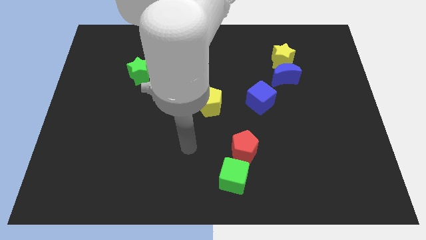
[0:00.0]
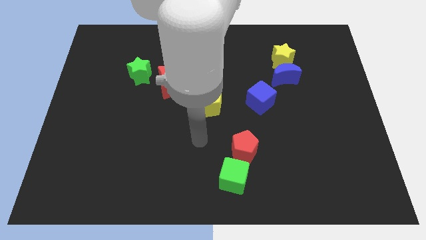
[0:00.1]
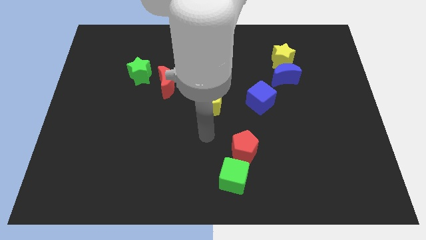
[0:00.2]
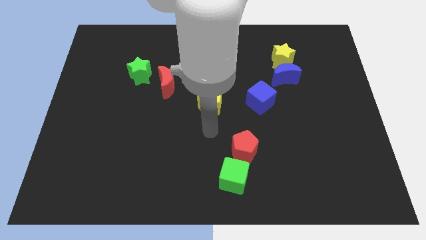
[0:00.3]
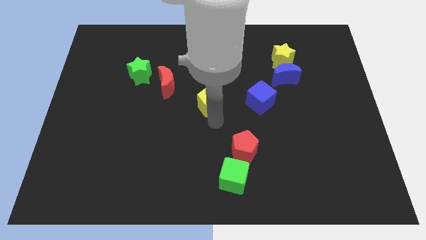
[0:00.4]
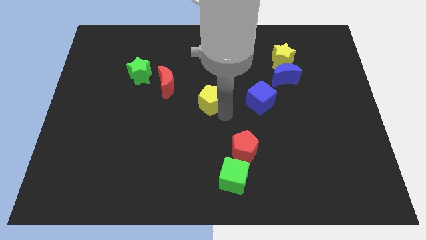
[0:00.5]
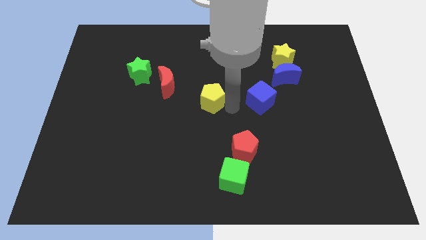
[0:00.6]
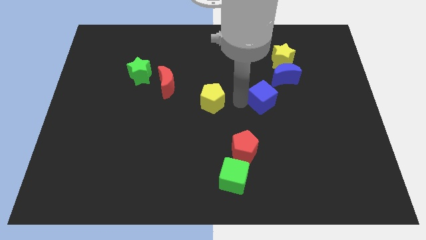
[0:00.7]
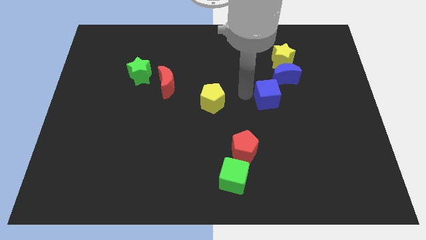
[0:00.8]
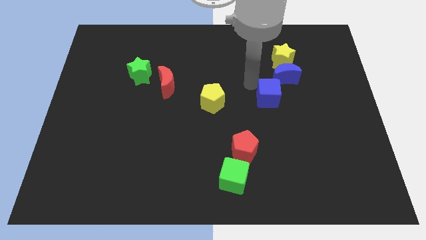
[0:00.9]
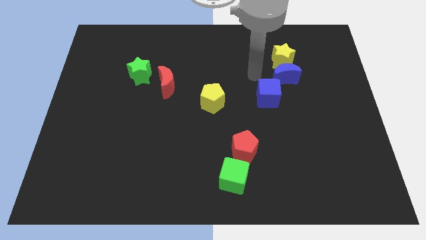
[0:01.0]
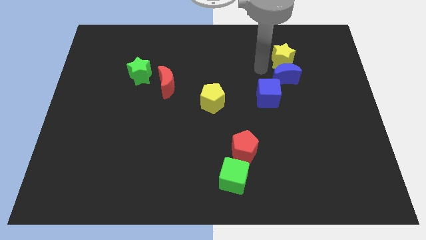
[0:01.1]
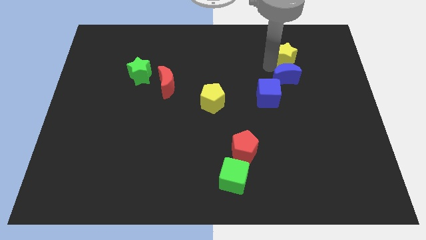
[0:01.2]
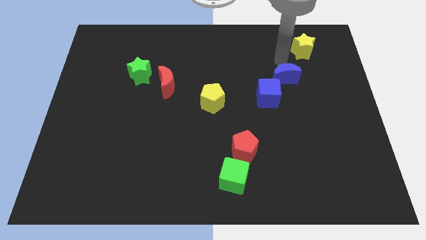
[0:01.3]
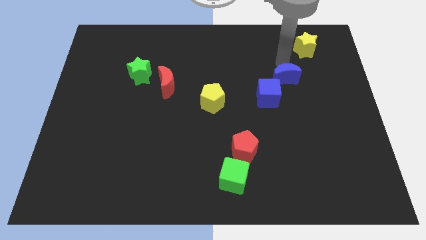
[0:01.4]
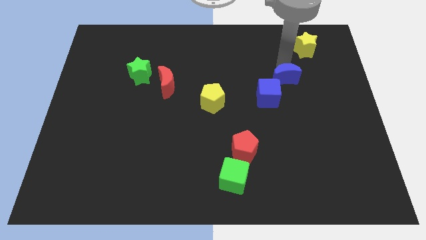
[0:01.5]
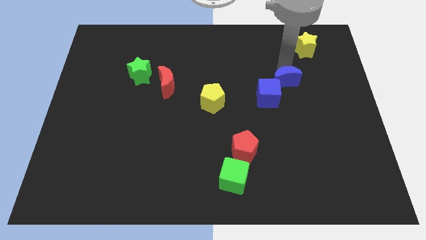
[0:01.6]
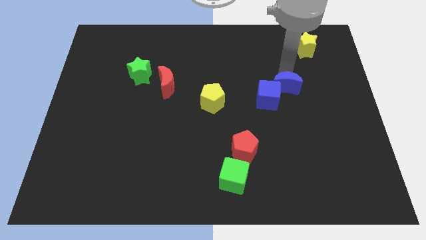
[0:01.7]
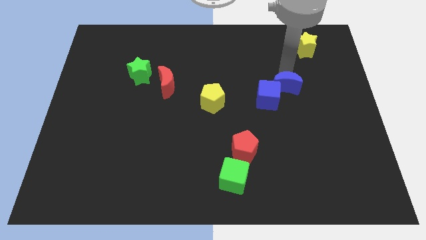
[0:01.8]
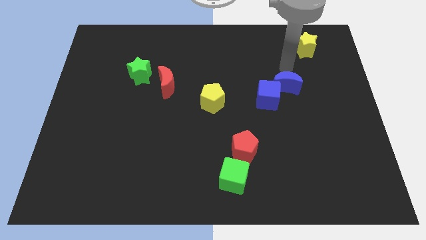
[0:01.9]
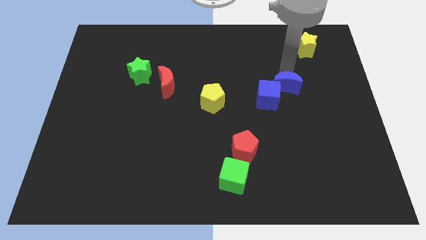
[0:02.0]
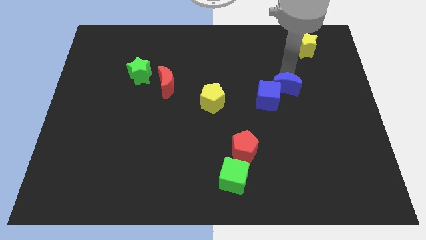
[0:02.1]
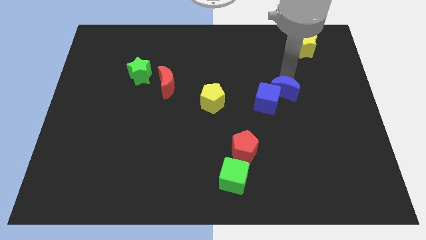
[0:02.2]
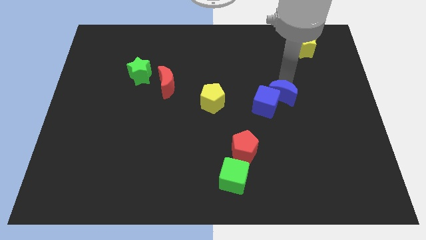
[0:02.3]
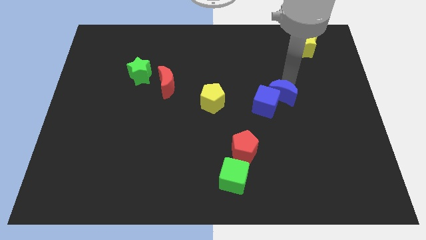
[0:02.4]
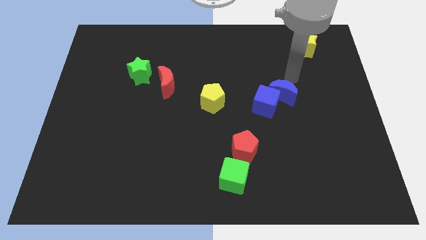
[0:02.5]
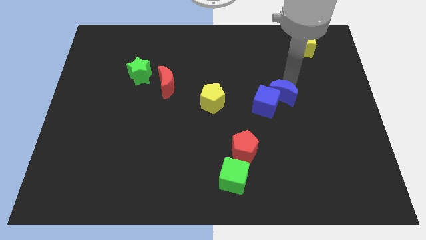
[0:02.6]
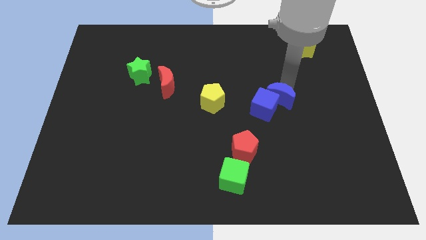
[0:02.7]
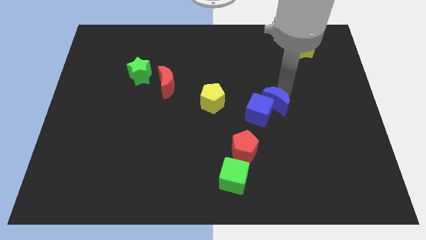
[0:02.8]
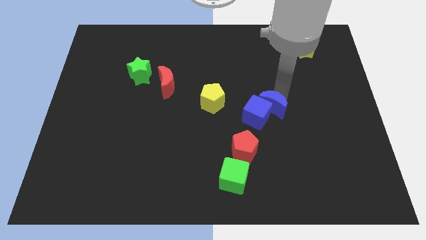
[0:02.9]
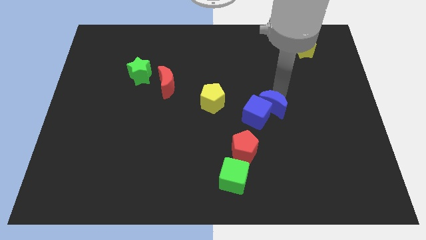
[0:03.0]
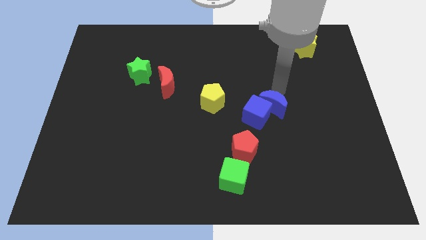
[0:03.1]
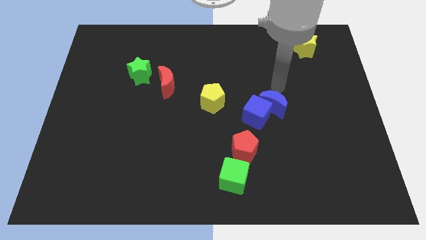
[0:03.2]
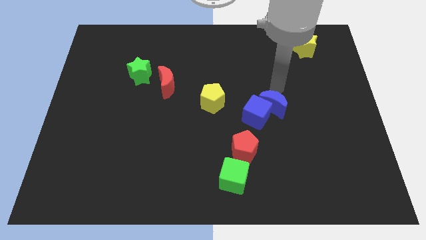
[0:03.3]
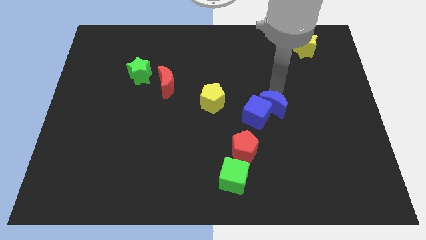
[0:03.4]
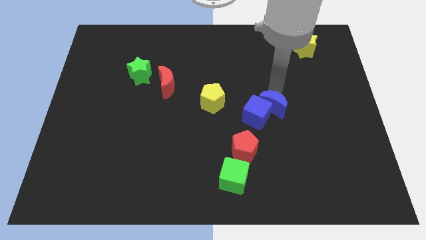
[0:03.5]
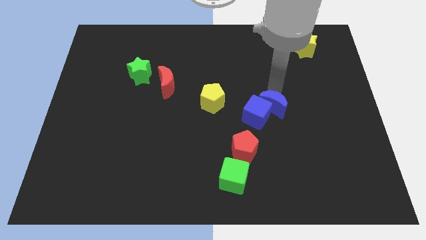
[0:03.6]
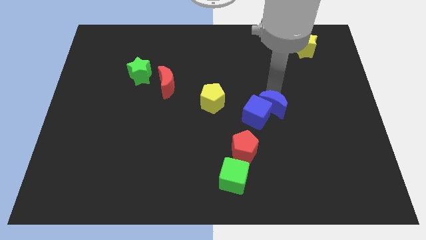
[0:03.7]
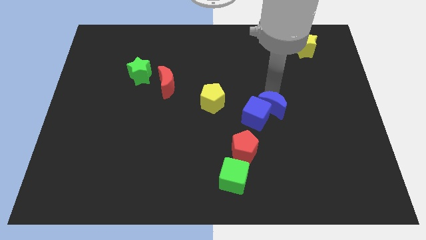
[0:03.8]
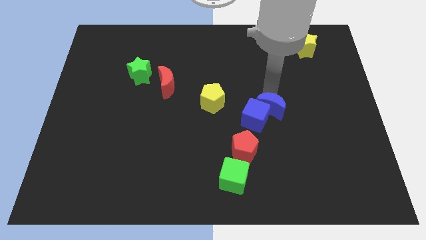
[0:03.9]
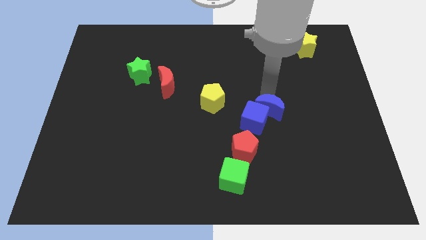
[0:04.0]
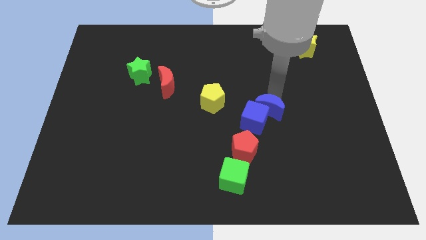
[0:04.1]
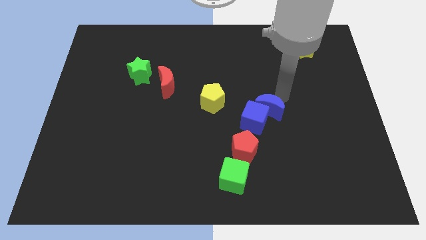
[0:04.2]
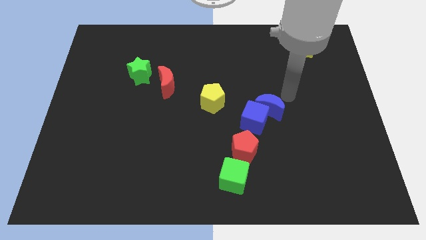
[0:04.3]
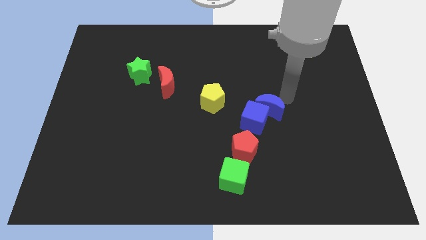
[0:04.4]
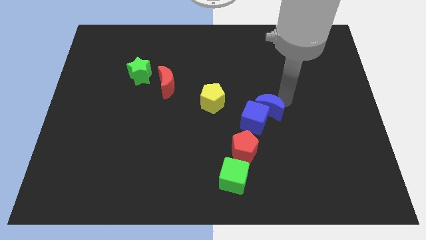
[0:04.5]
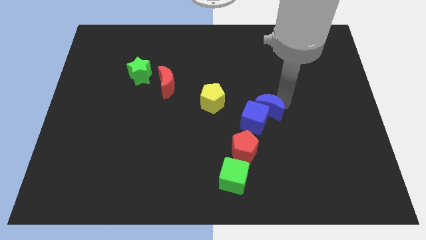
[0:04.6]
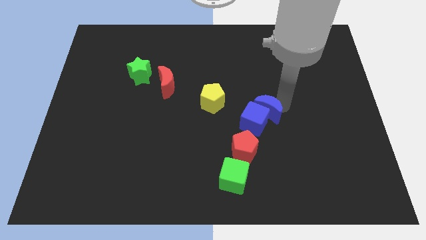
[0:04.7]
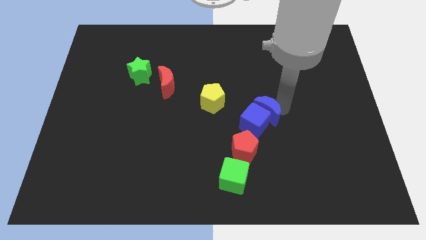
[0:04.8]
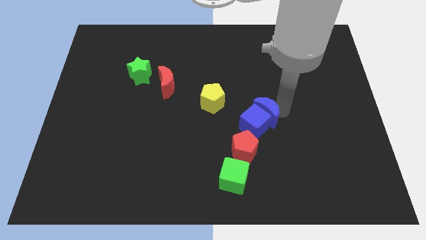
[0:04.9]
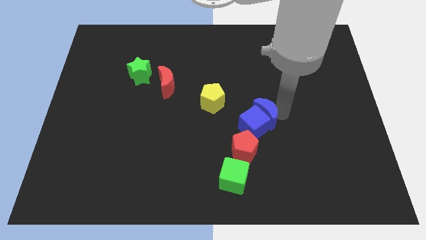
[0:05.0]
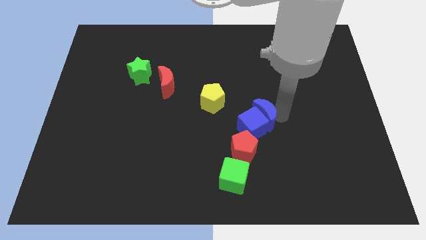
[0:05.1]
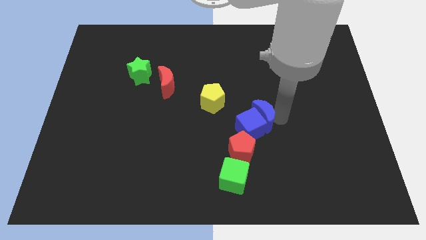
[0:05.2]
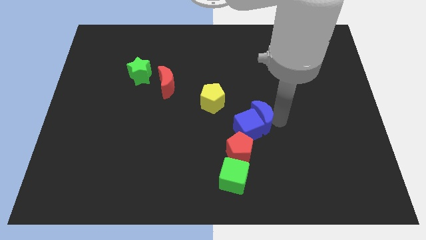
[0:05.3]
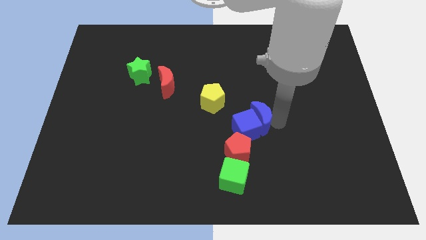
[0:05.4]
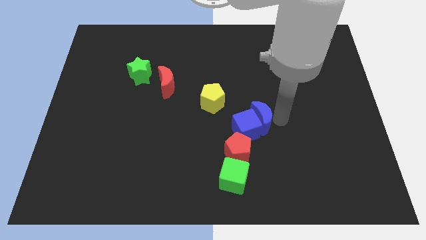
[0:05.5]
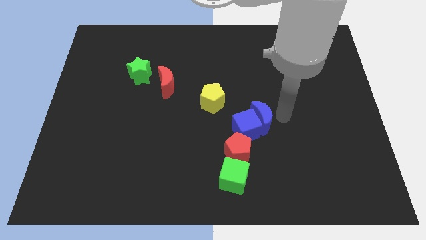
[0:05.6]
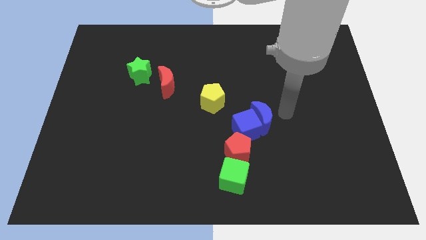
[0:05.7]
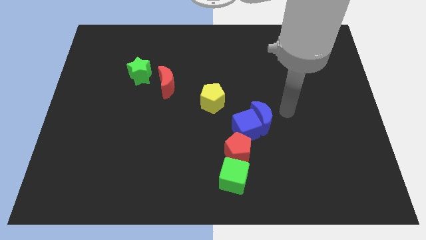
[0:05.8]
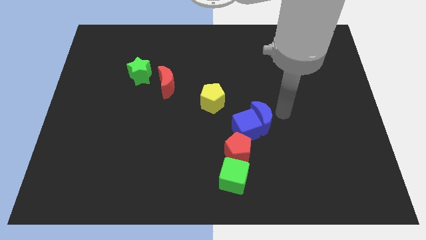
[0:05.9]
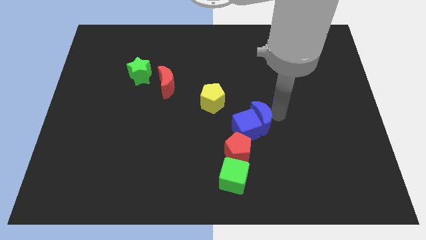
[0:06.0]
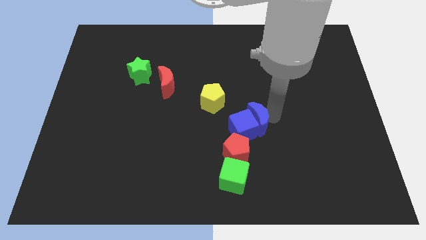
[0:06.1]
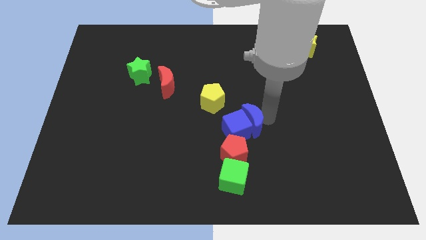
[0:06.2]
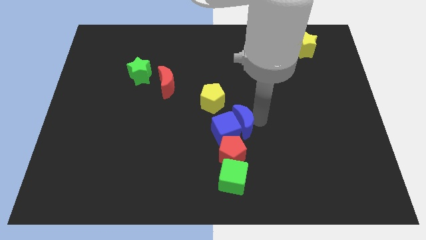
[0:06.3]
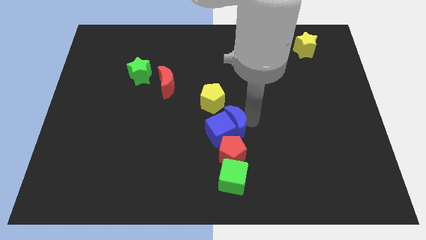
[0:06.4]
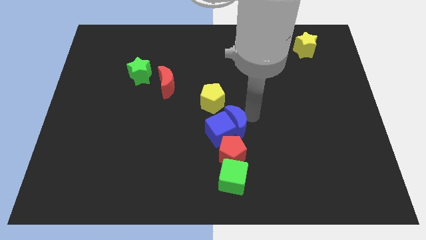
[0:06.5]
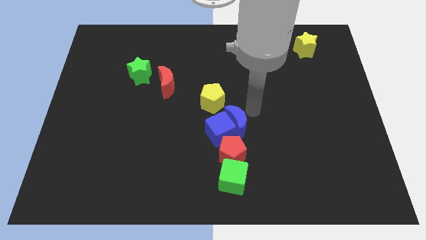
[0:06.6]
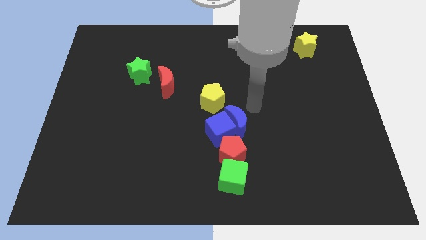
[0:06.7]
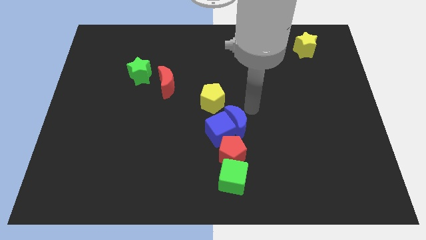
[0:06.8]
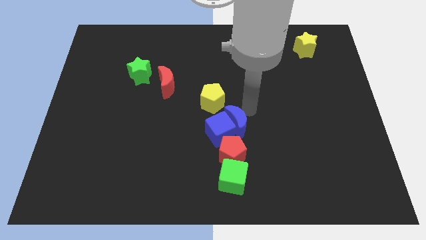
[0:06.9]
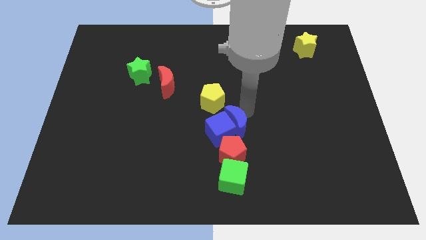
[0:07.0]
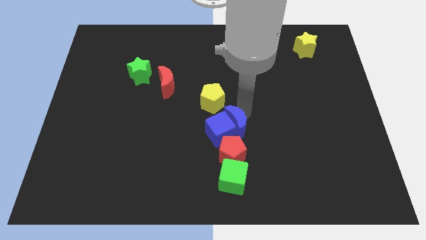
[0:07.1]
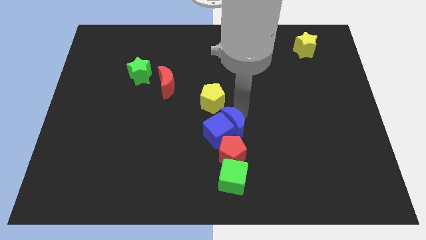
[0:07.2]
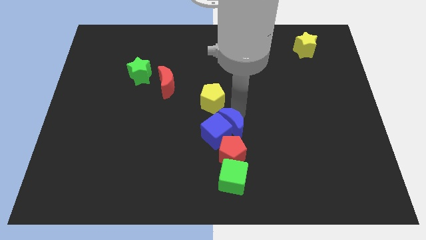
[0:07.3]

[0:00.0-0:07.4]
move the blue moon down and to the left diagonally

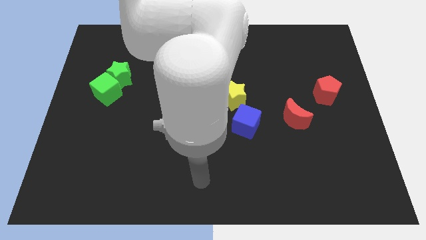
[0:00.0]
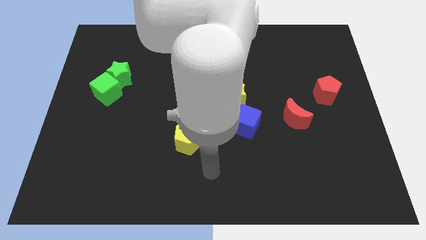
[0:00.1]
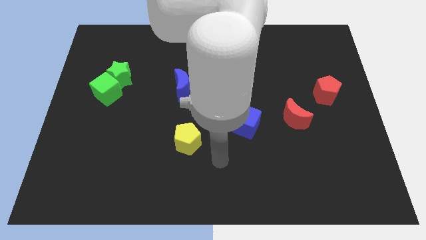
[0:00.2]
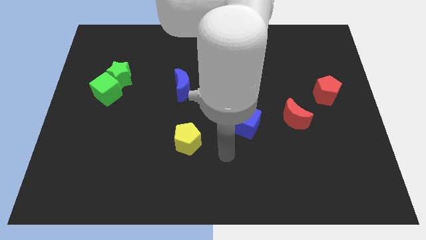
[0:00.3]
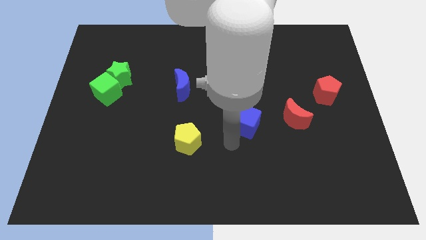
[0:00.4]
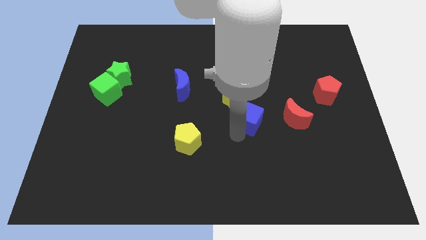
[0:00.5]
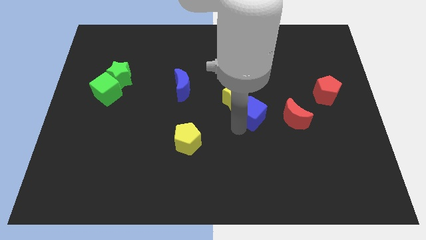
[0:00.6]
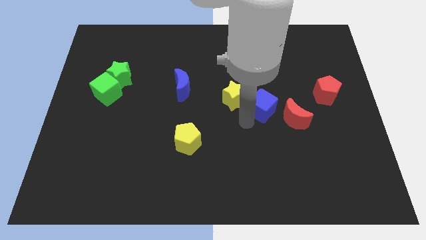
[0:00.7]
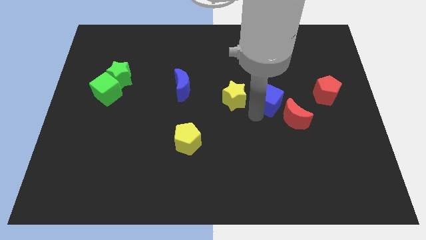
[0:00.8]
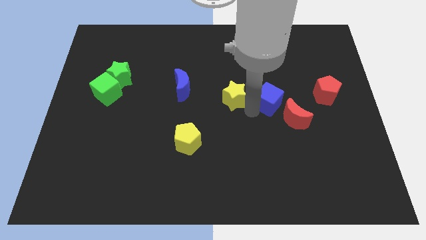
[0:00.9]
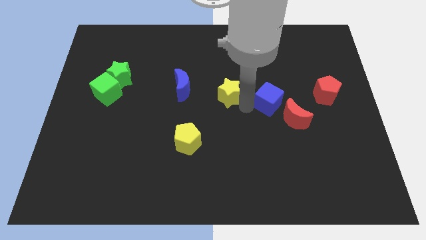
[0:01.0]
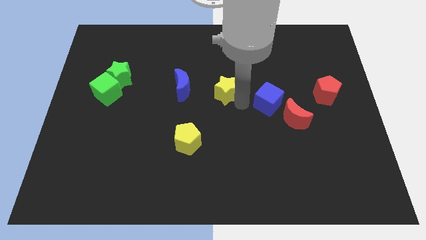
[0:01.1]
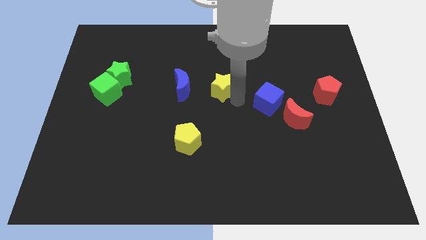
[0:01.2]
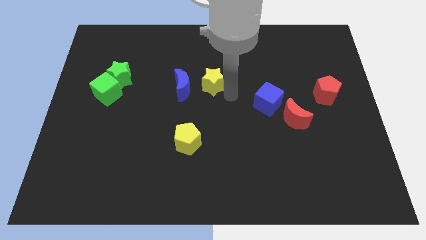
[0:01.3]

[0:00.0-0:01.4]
slightly push the yellow star up and left
